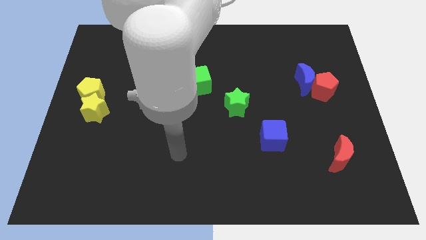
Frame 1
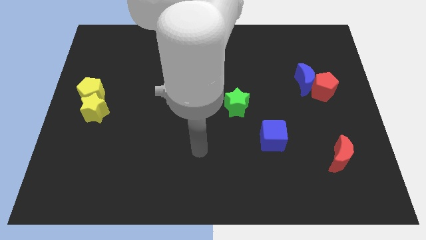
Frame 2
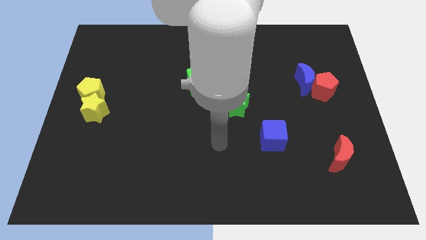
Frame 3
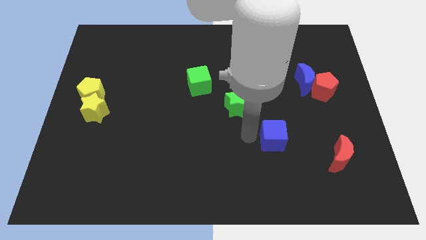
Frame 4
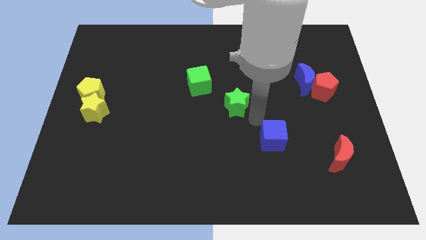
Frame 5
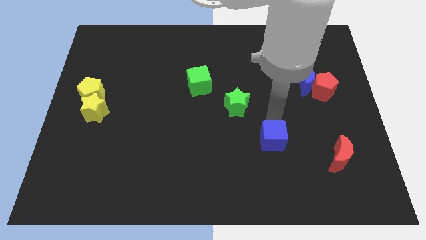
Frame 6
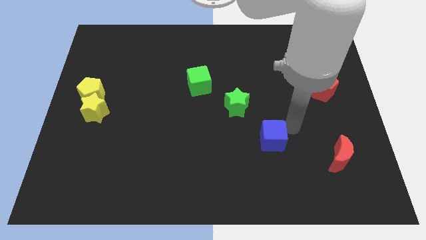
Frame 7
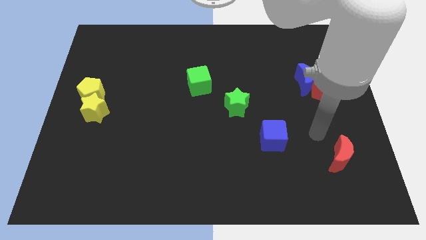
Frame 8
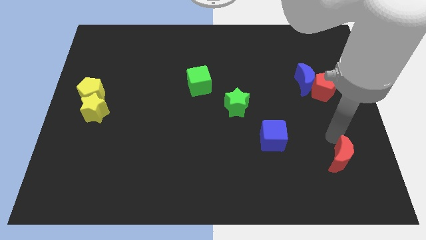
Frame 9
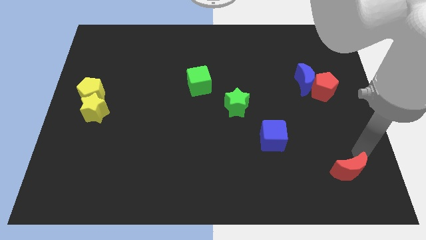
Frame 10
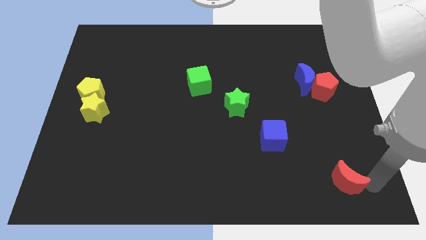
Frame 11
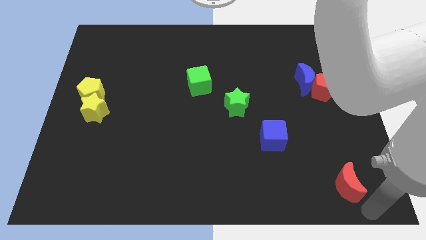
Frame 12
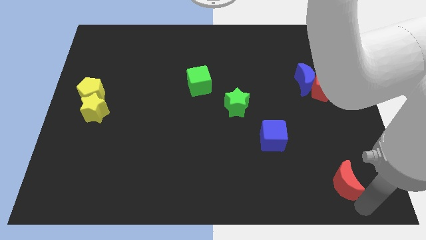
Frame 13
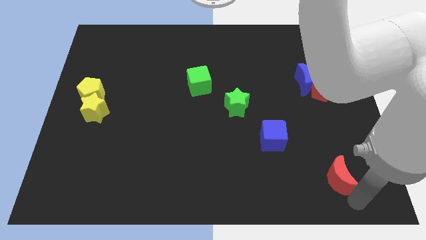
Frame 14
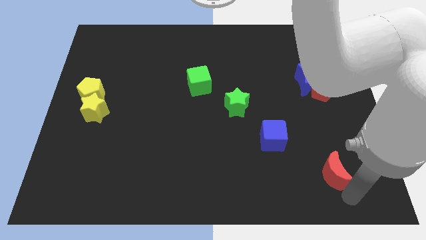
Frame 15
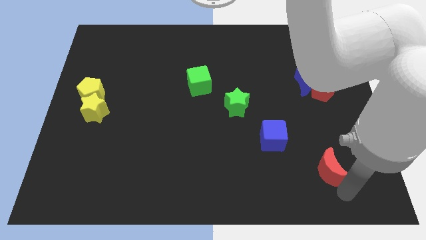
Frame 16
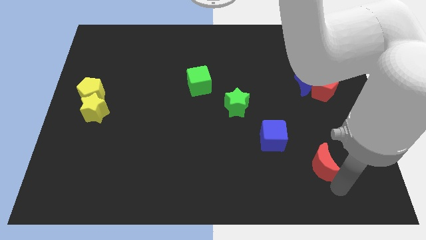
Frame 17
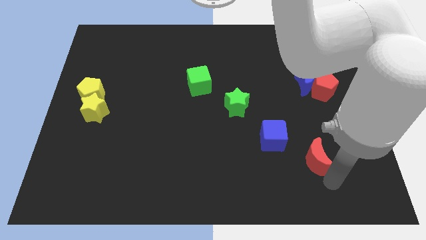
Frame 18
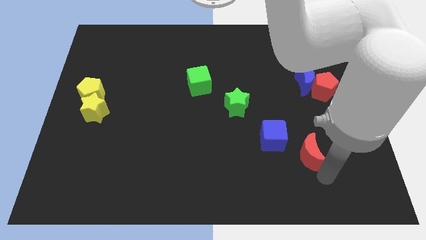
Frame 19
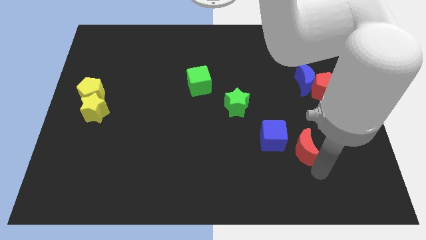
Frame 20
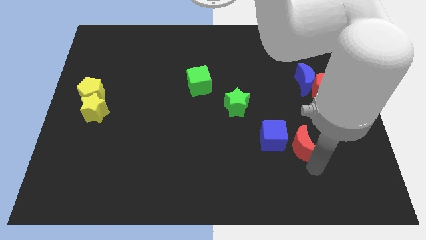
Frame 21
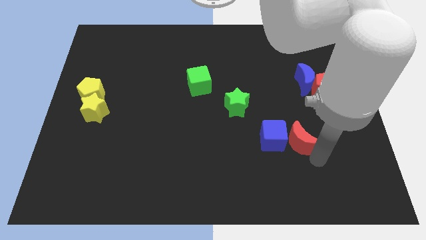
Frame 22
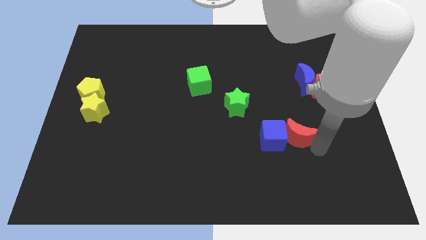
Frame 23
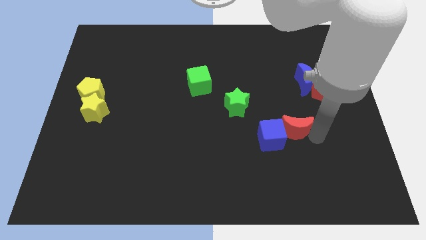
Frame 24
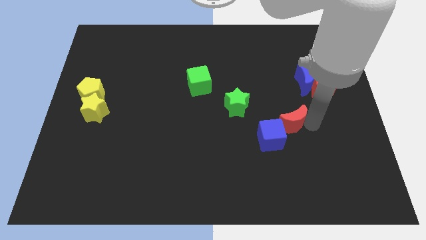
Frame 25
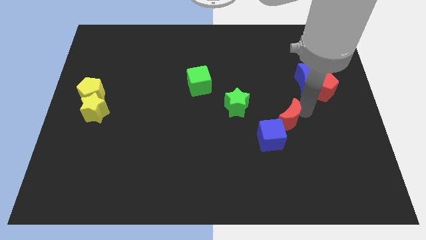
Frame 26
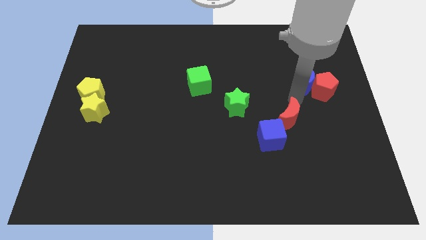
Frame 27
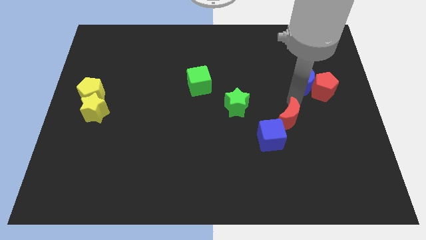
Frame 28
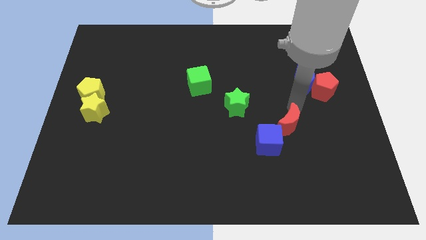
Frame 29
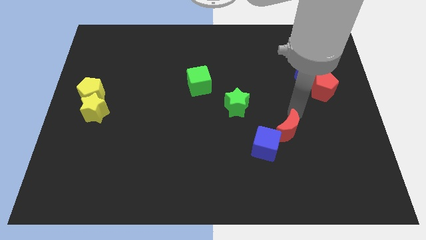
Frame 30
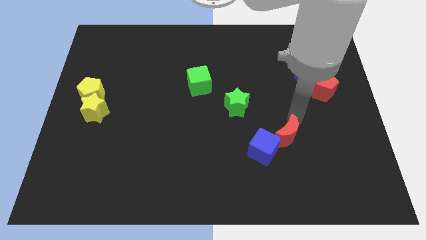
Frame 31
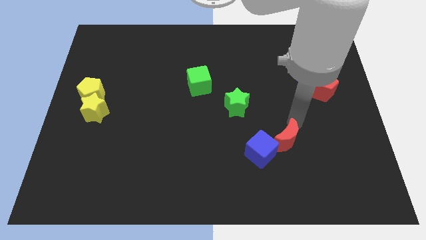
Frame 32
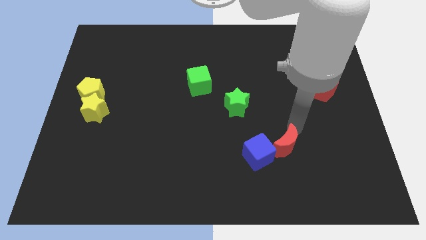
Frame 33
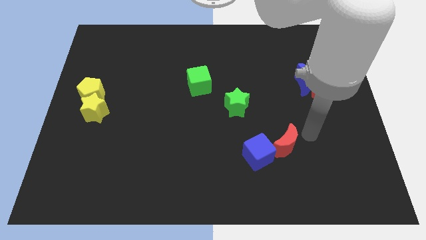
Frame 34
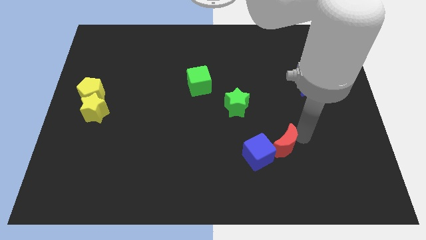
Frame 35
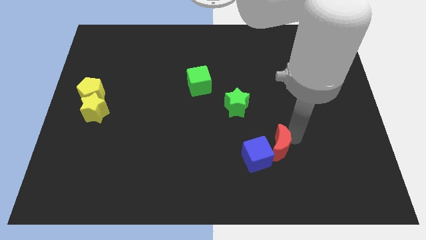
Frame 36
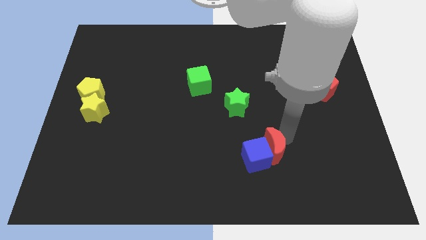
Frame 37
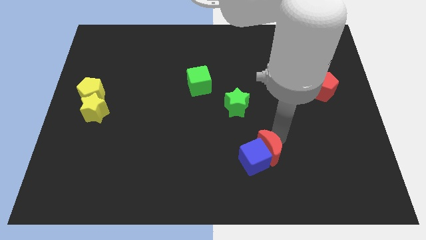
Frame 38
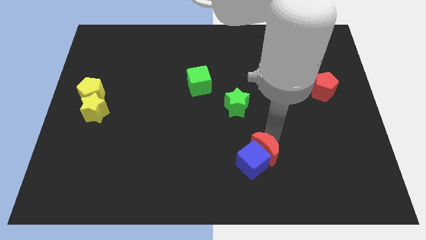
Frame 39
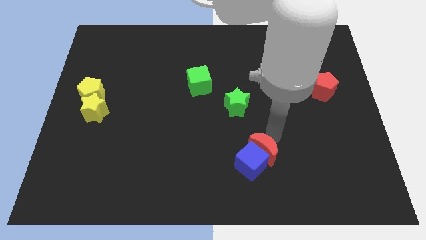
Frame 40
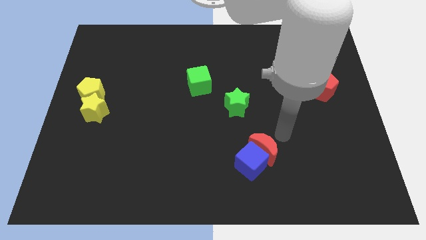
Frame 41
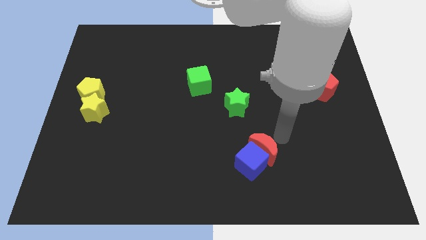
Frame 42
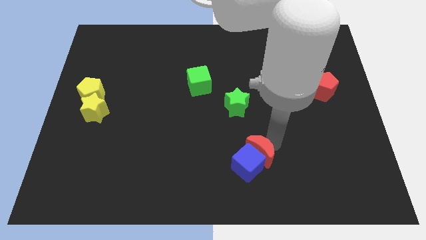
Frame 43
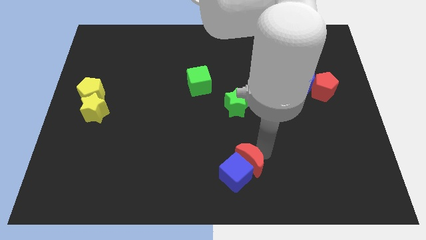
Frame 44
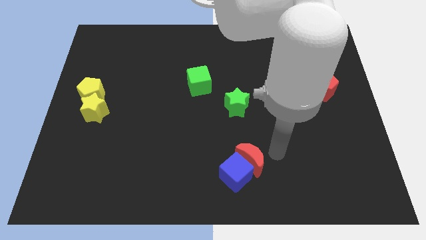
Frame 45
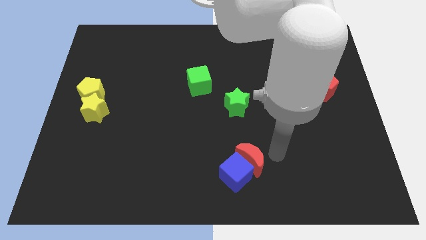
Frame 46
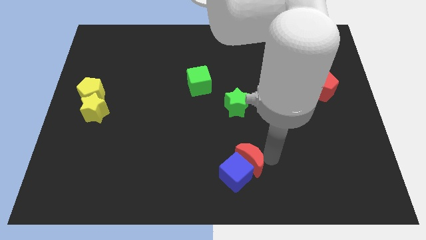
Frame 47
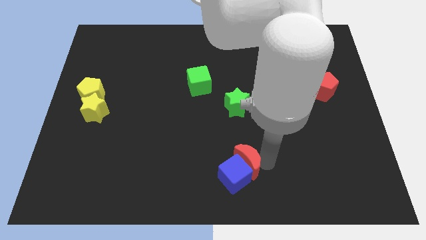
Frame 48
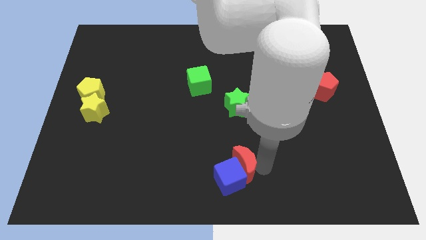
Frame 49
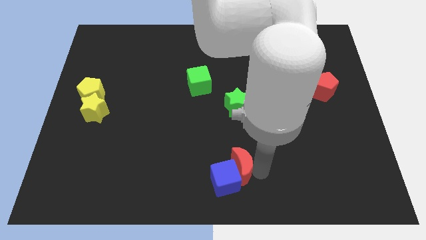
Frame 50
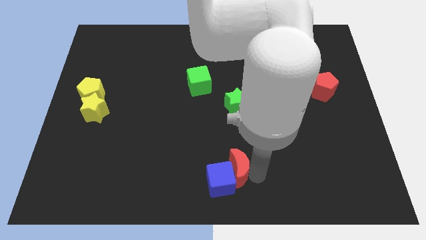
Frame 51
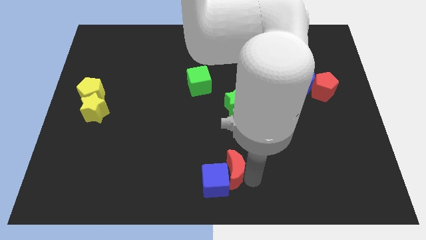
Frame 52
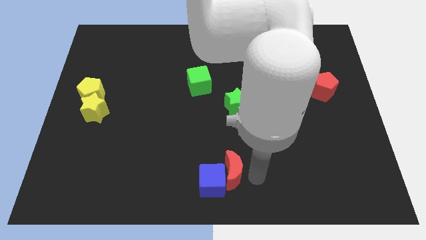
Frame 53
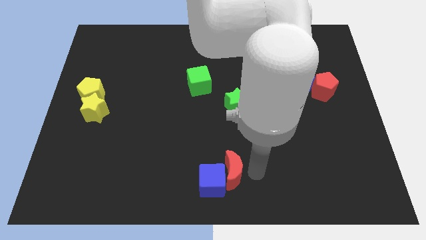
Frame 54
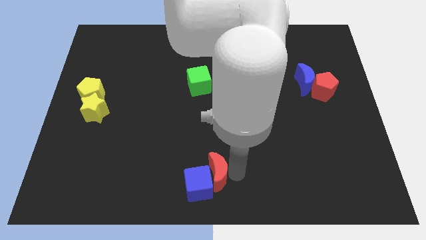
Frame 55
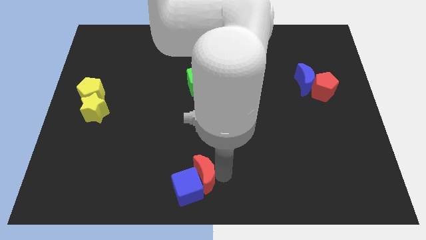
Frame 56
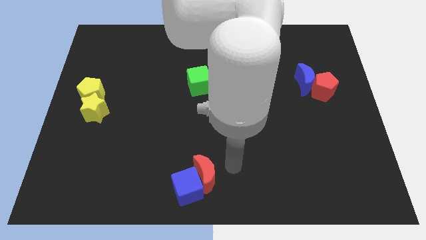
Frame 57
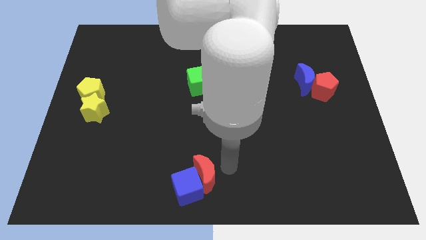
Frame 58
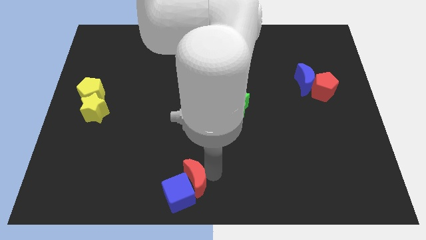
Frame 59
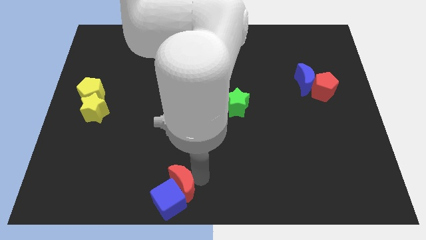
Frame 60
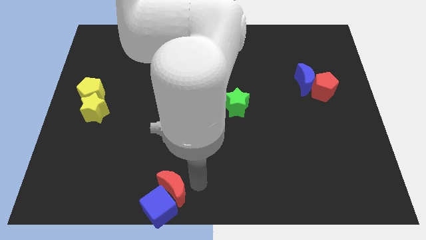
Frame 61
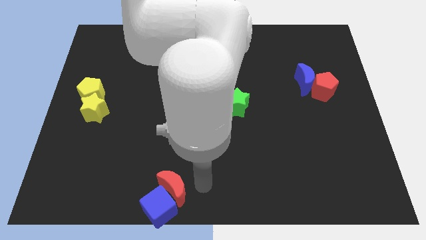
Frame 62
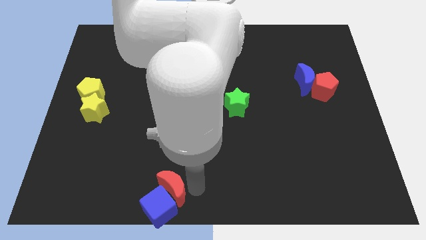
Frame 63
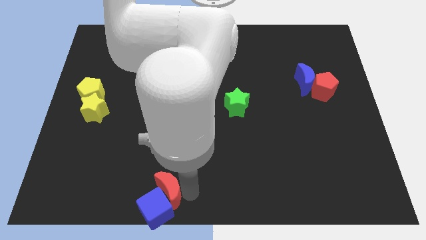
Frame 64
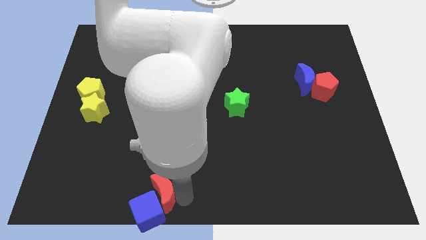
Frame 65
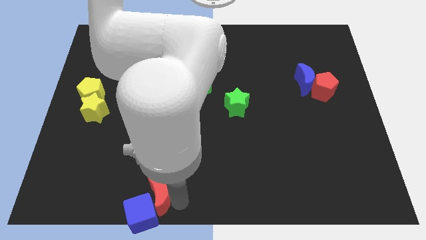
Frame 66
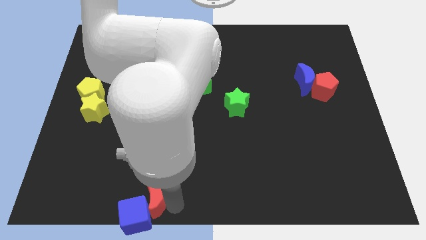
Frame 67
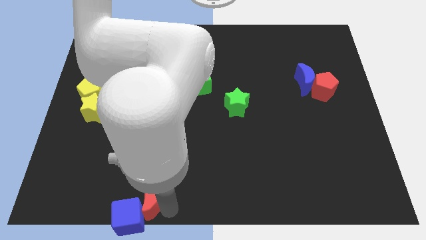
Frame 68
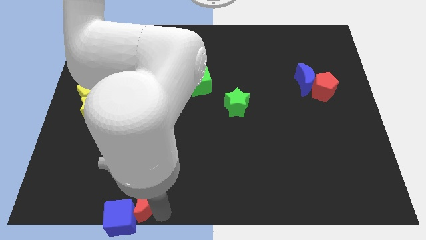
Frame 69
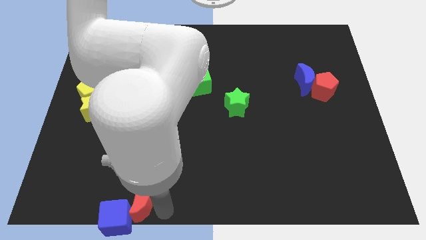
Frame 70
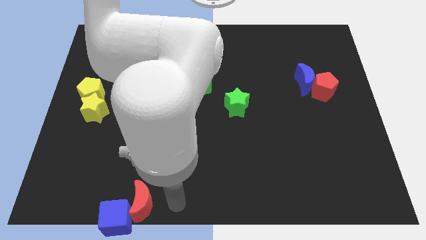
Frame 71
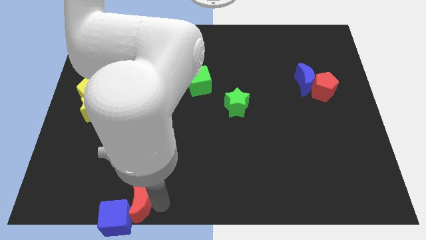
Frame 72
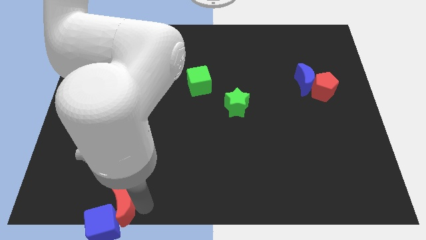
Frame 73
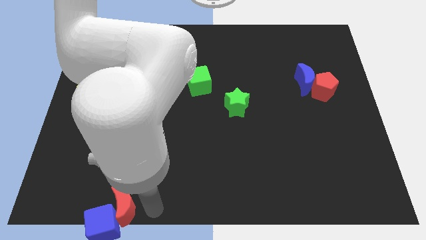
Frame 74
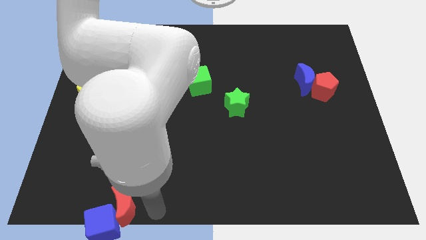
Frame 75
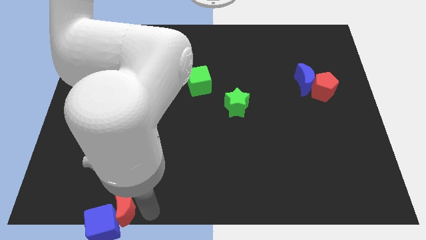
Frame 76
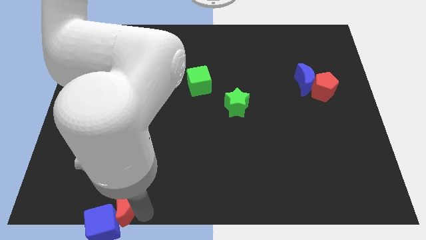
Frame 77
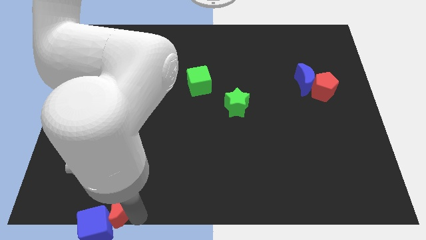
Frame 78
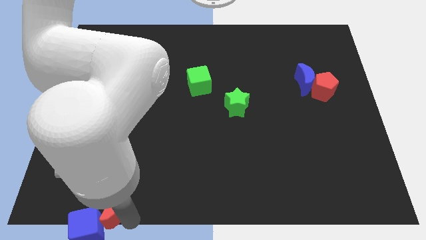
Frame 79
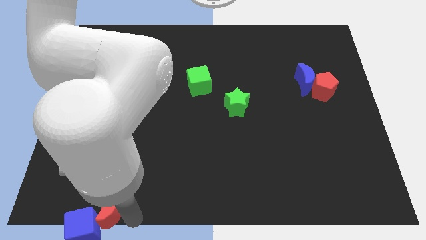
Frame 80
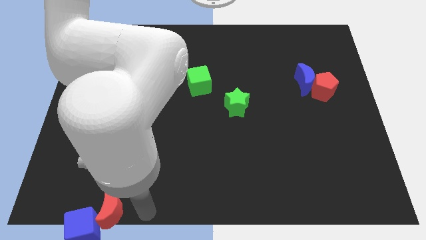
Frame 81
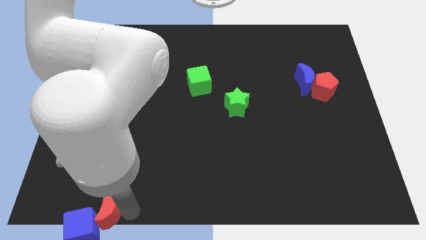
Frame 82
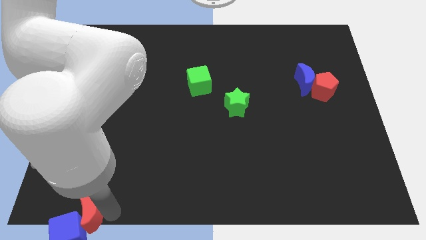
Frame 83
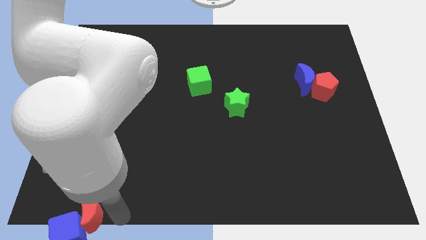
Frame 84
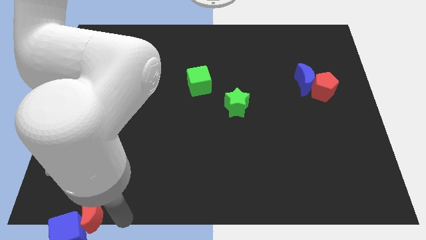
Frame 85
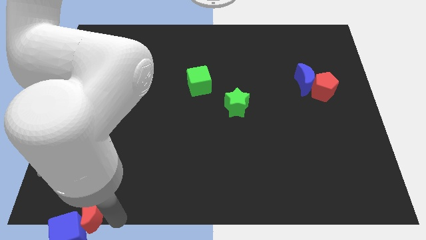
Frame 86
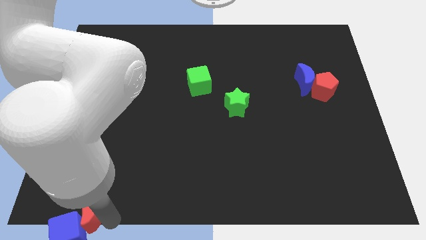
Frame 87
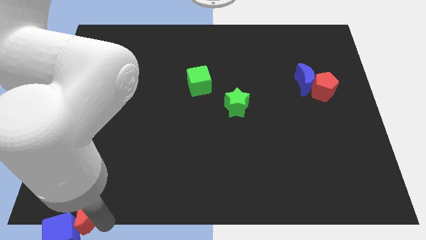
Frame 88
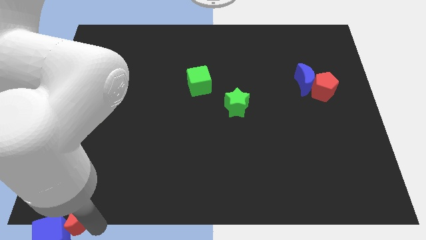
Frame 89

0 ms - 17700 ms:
push the red moon to the bottom left
